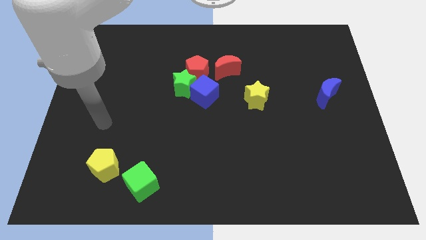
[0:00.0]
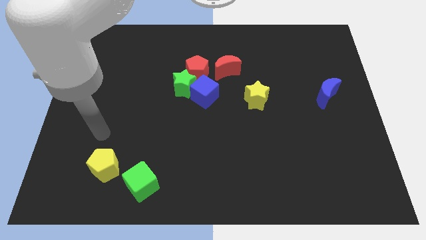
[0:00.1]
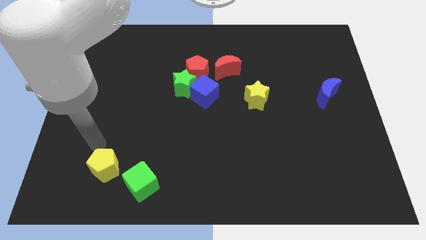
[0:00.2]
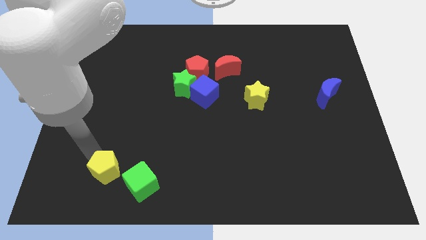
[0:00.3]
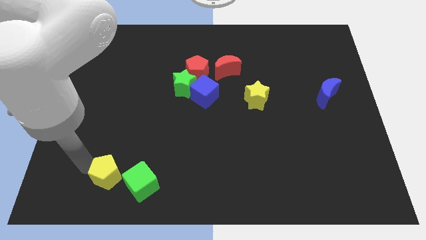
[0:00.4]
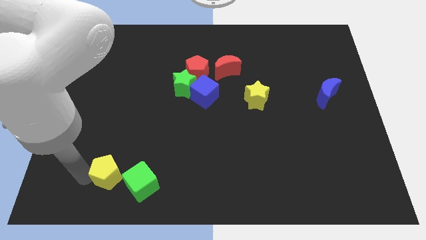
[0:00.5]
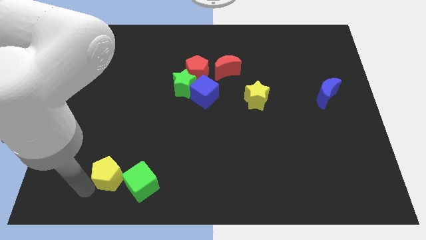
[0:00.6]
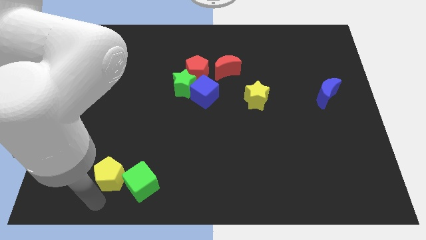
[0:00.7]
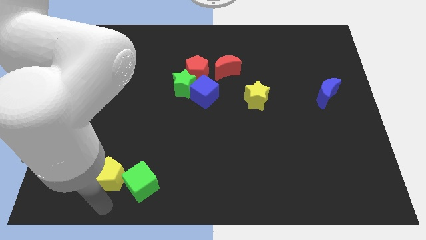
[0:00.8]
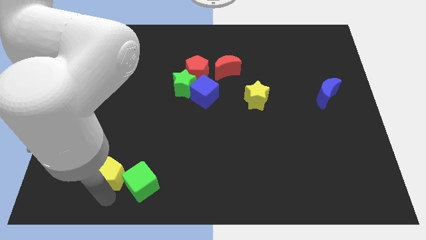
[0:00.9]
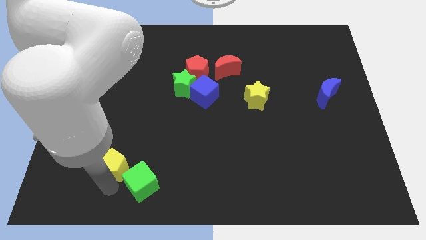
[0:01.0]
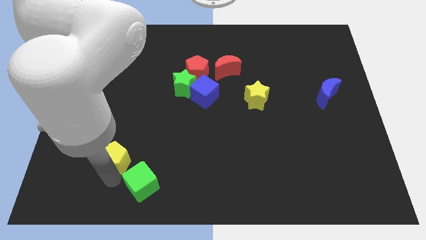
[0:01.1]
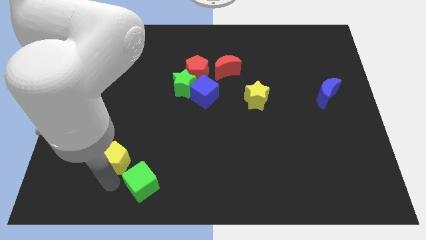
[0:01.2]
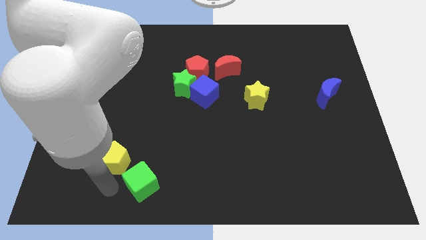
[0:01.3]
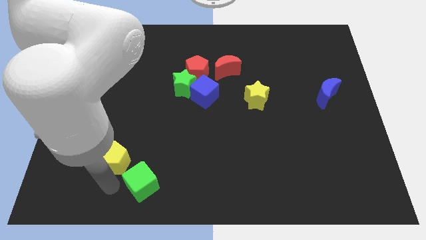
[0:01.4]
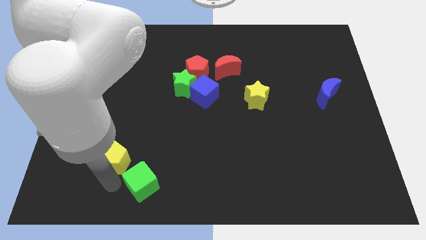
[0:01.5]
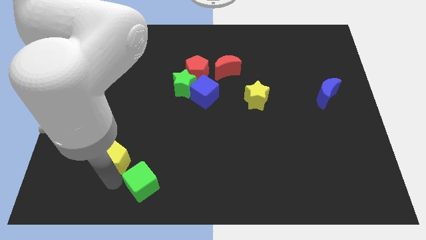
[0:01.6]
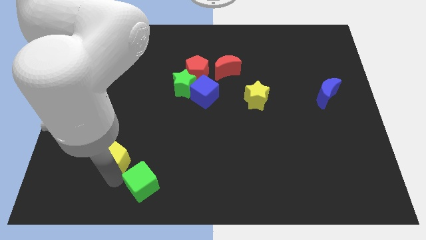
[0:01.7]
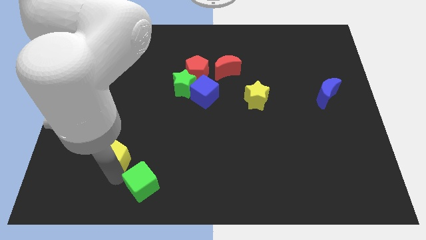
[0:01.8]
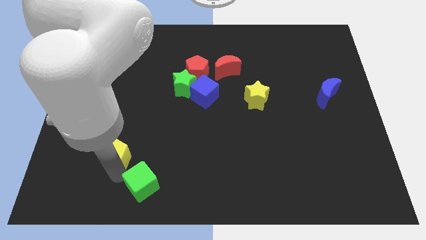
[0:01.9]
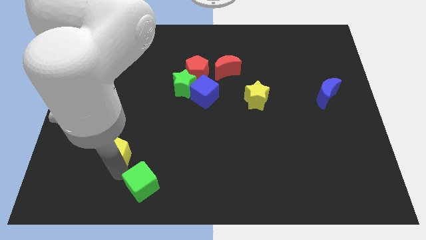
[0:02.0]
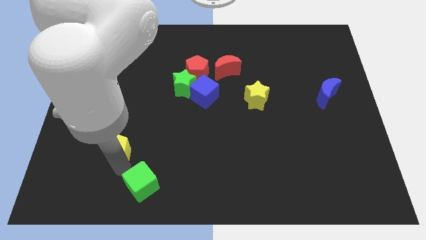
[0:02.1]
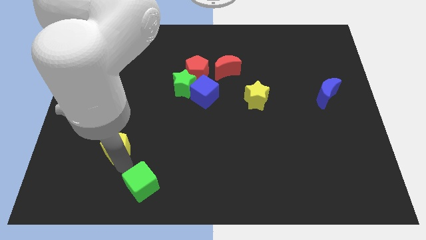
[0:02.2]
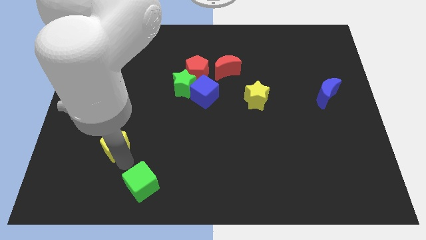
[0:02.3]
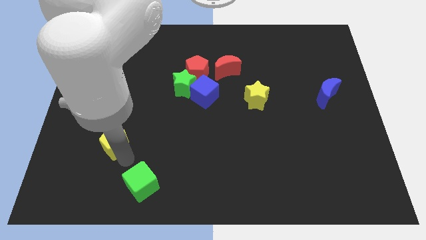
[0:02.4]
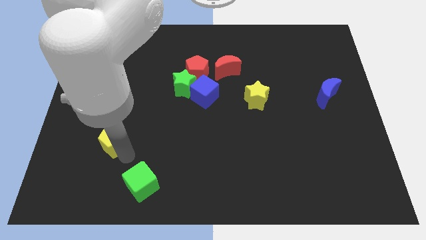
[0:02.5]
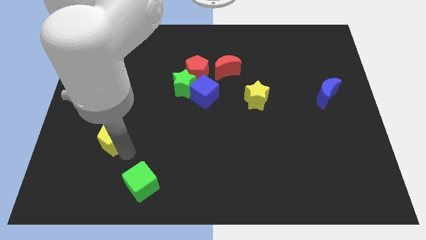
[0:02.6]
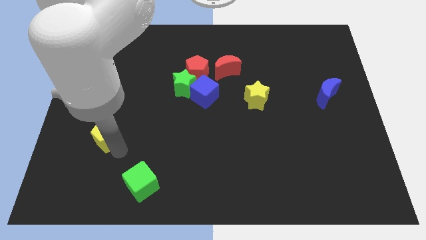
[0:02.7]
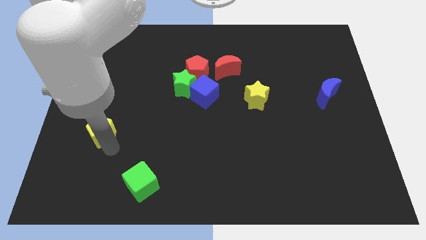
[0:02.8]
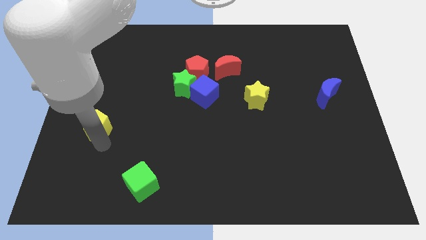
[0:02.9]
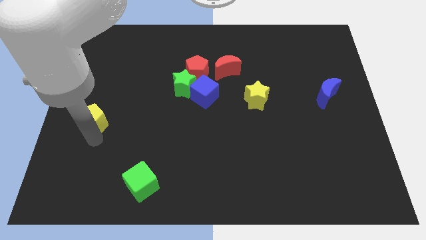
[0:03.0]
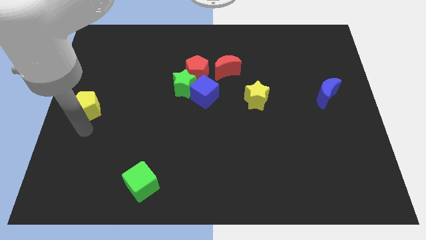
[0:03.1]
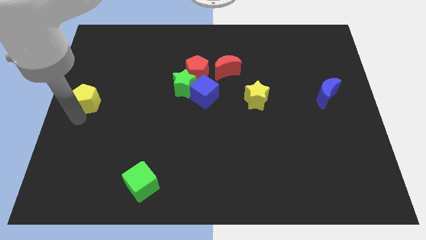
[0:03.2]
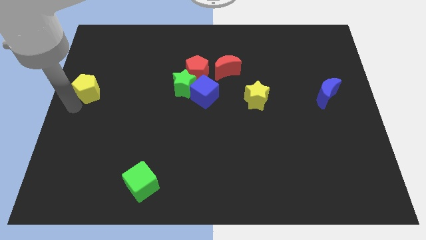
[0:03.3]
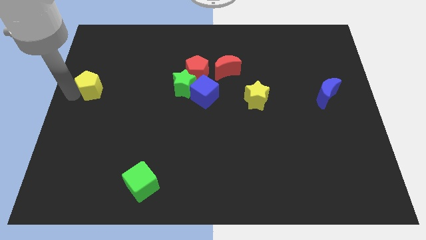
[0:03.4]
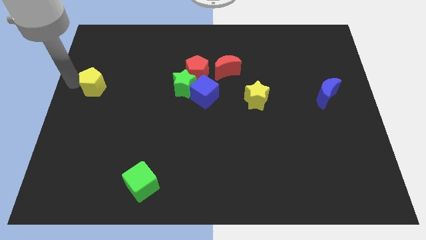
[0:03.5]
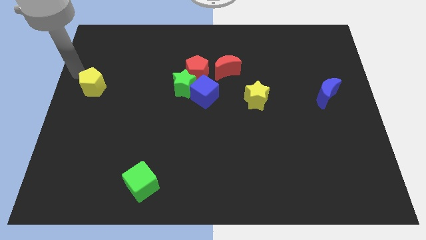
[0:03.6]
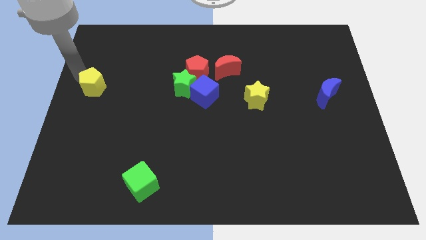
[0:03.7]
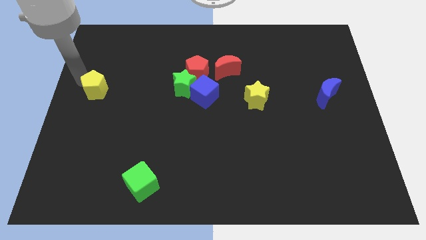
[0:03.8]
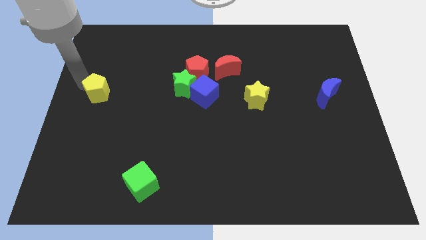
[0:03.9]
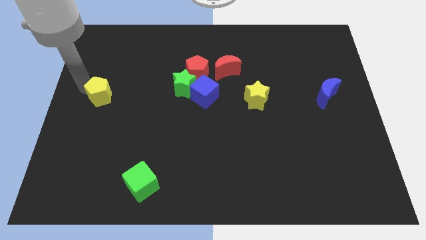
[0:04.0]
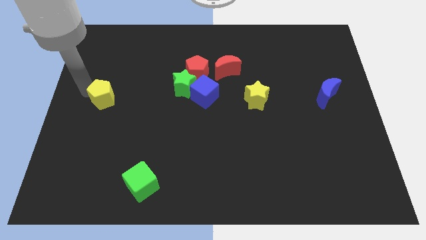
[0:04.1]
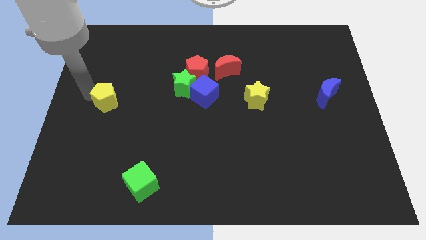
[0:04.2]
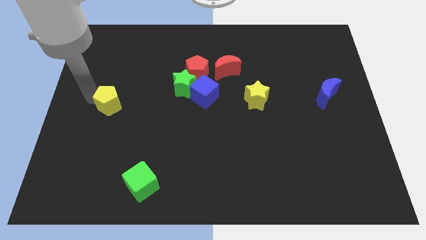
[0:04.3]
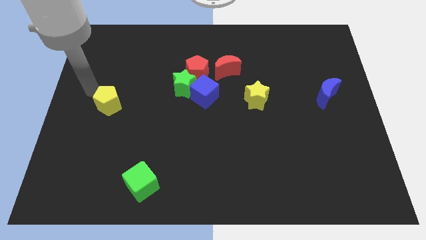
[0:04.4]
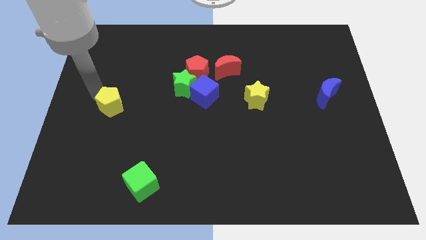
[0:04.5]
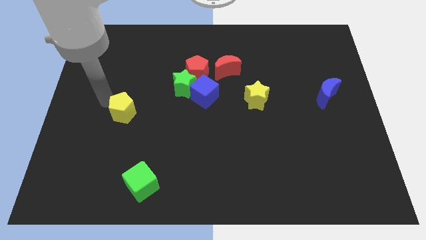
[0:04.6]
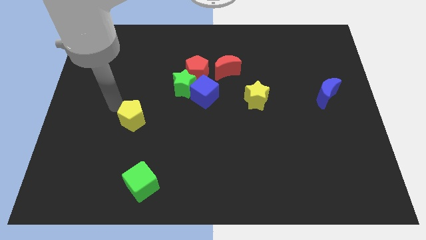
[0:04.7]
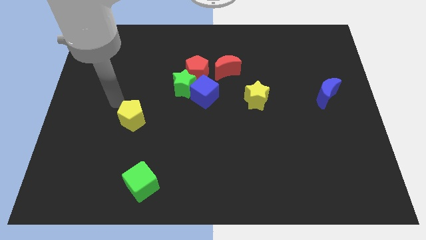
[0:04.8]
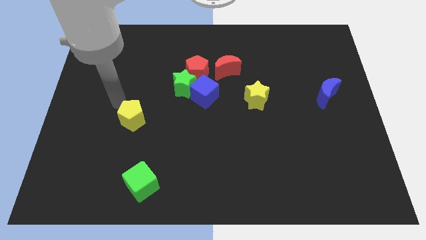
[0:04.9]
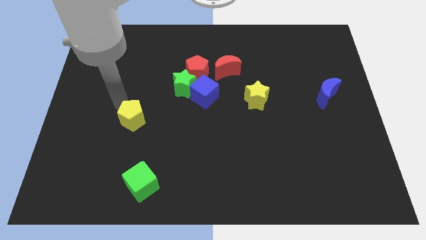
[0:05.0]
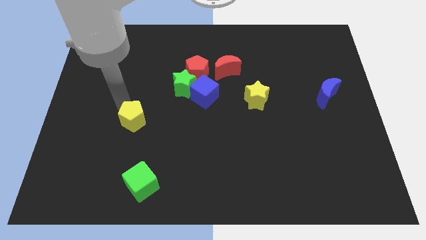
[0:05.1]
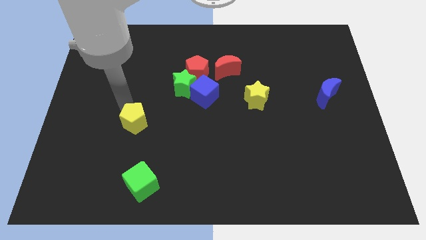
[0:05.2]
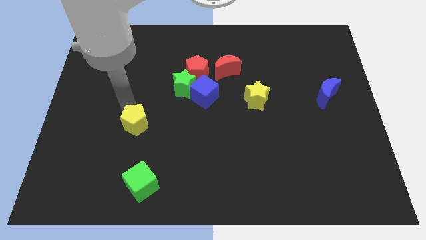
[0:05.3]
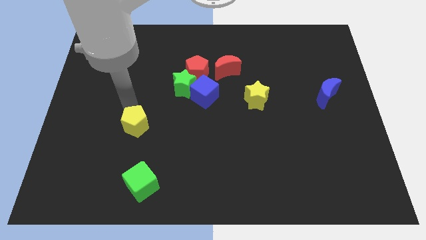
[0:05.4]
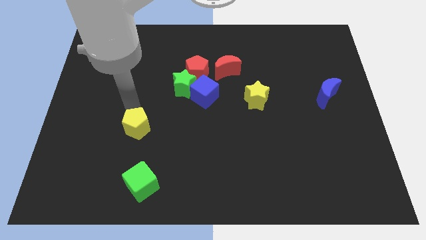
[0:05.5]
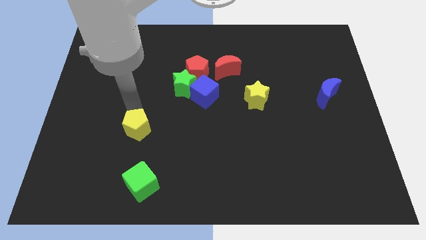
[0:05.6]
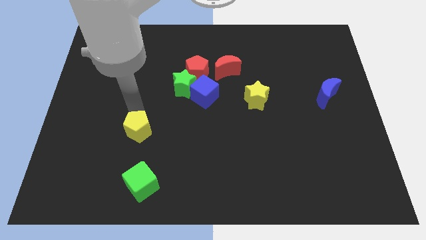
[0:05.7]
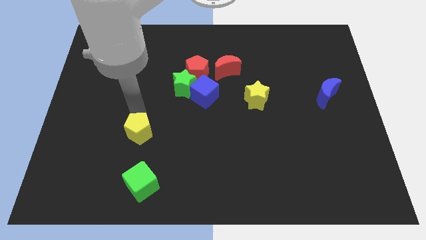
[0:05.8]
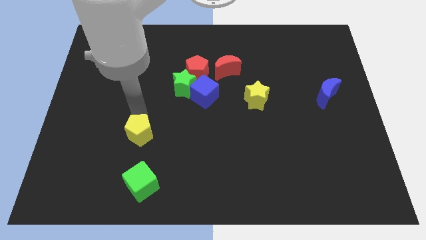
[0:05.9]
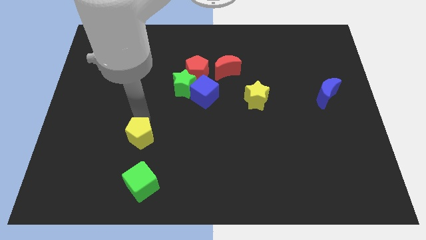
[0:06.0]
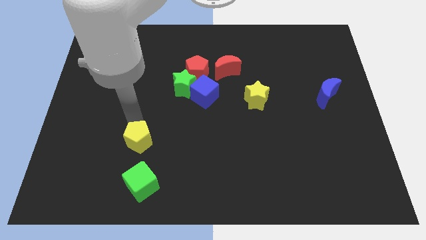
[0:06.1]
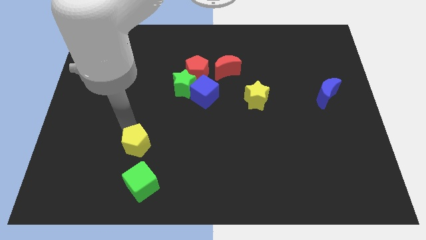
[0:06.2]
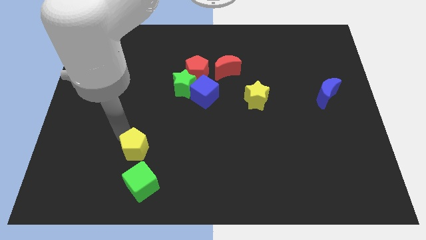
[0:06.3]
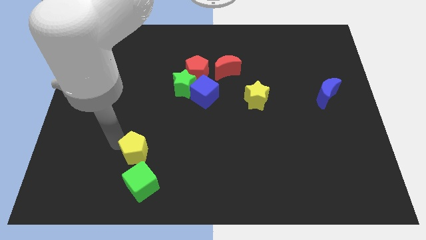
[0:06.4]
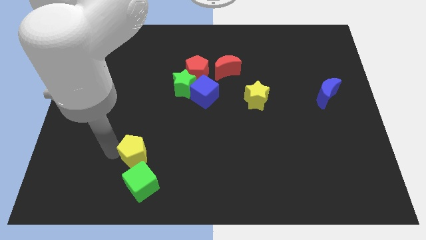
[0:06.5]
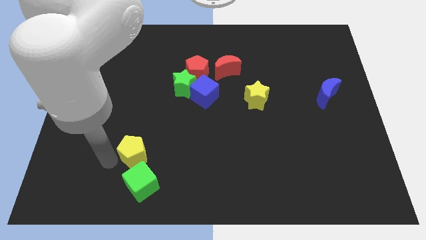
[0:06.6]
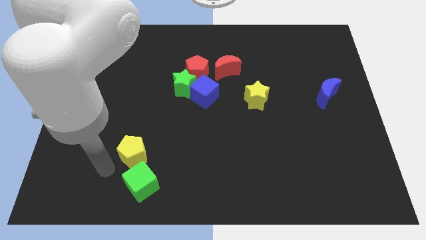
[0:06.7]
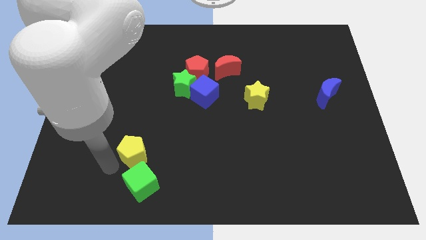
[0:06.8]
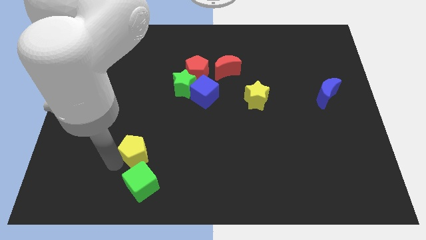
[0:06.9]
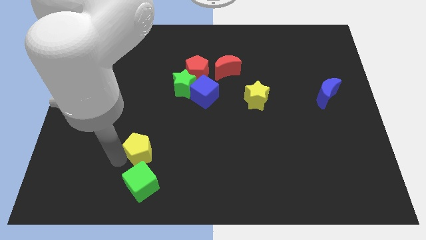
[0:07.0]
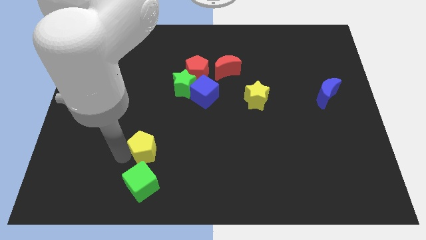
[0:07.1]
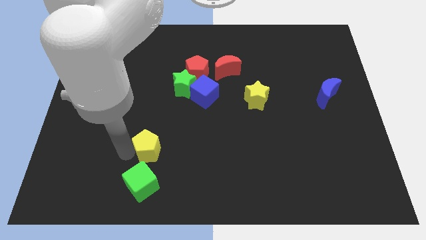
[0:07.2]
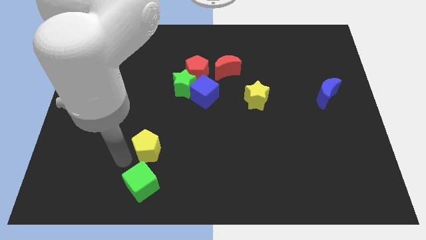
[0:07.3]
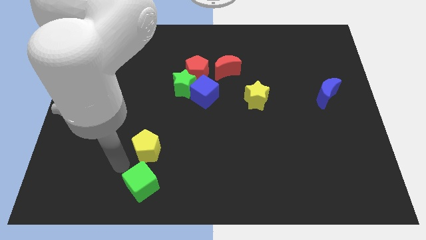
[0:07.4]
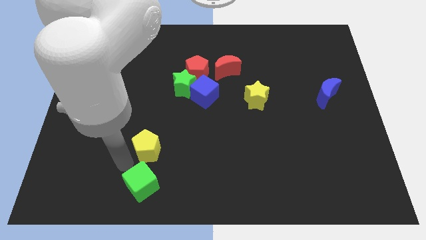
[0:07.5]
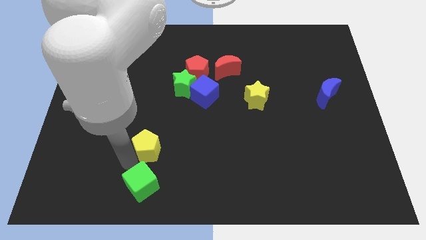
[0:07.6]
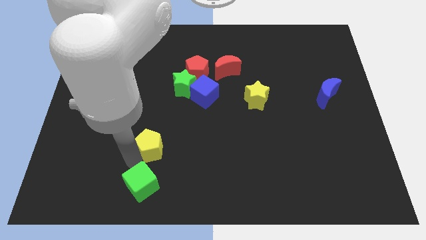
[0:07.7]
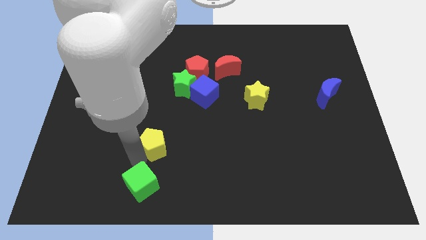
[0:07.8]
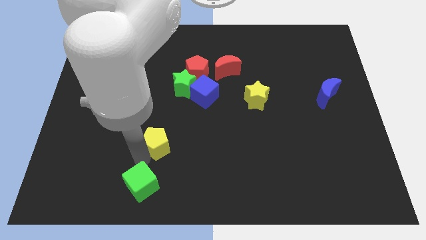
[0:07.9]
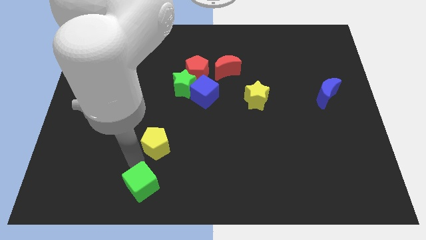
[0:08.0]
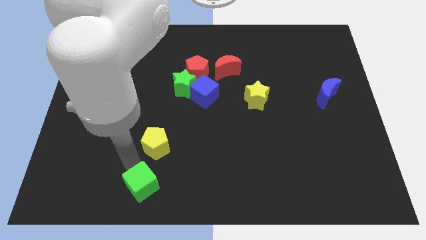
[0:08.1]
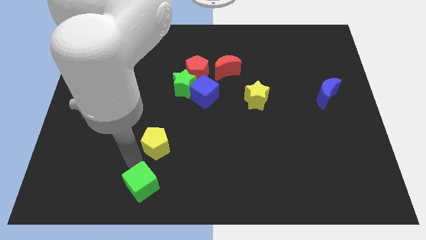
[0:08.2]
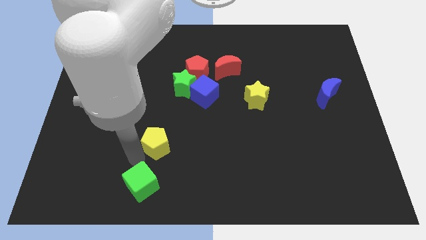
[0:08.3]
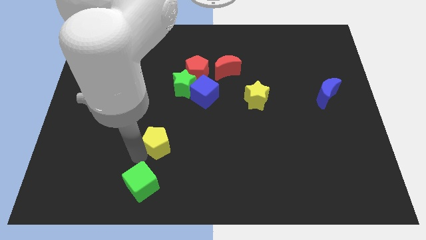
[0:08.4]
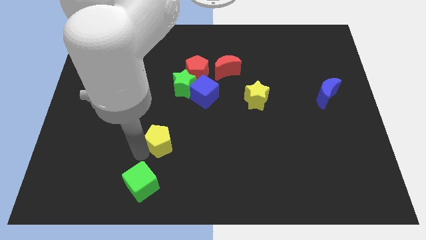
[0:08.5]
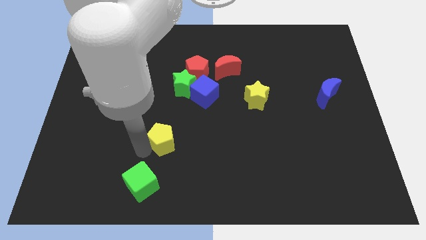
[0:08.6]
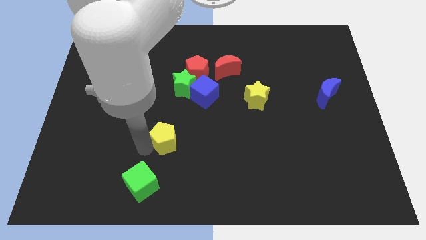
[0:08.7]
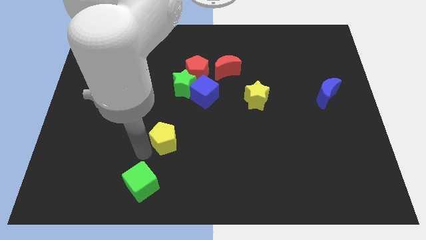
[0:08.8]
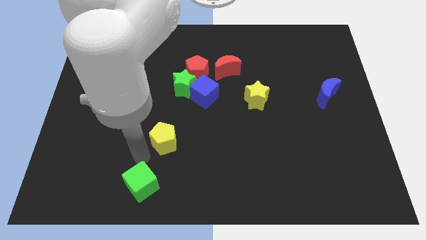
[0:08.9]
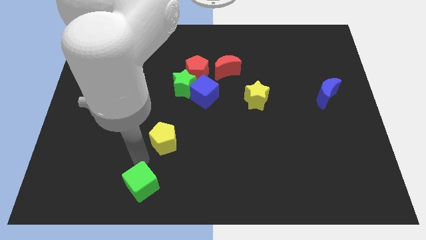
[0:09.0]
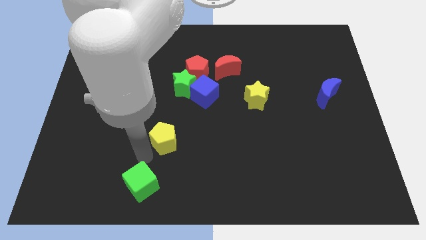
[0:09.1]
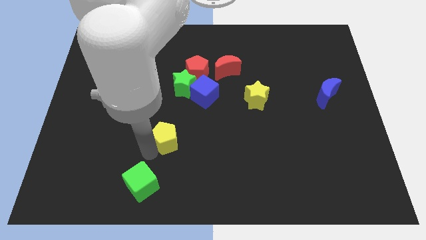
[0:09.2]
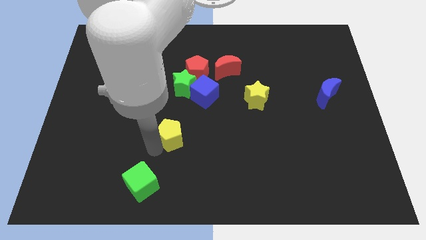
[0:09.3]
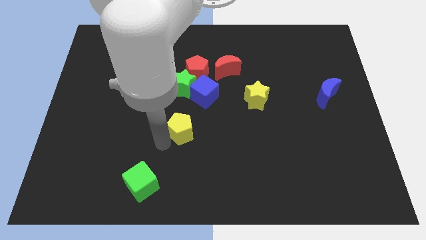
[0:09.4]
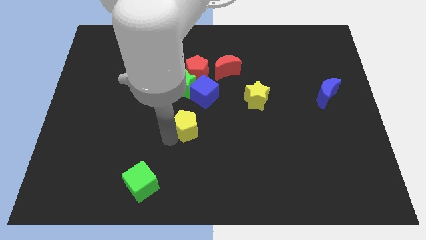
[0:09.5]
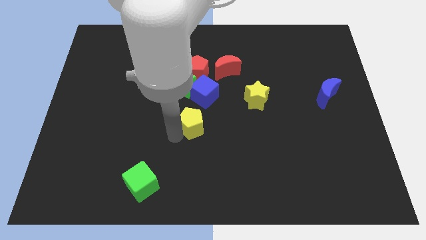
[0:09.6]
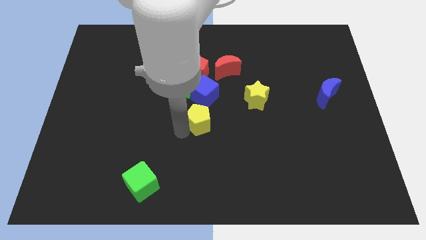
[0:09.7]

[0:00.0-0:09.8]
move the yellow pentagon upwards and to the right diagonally
